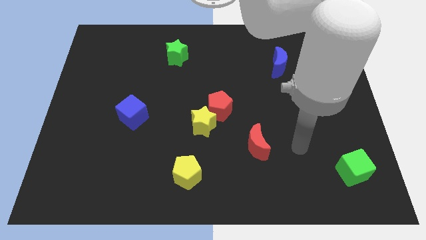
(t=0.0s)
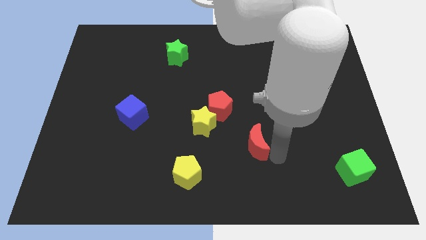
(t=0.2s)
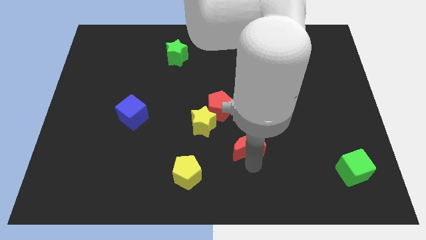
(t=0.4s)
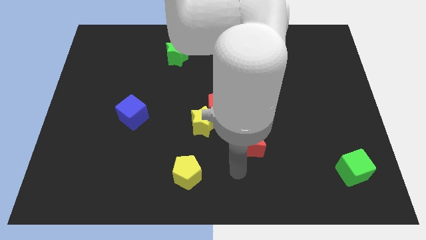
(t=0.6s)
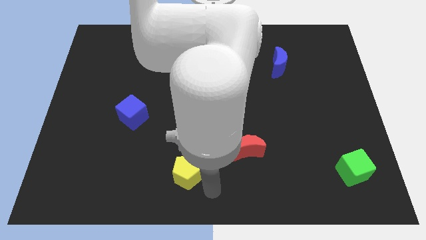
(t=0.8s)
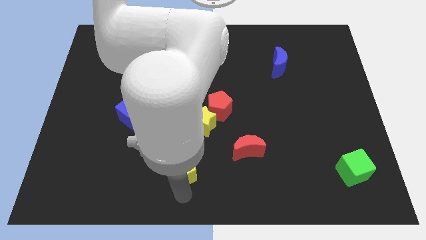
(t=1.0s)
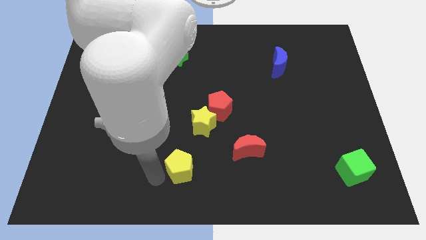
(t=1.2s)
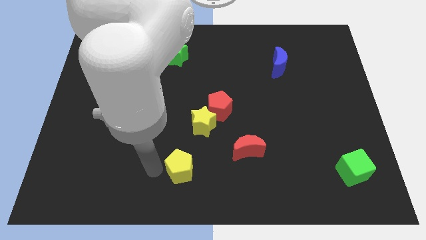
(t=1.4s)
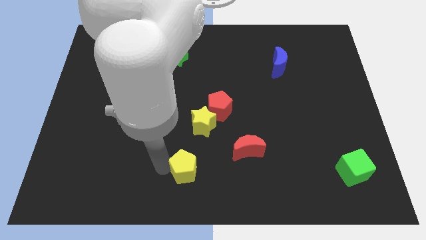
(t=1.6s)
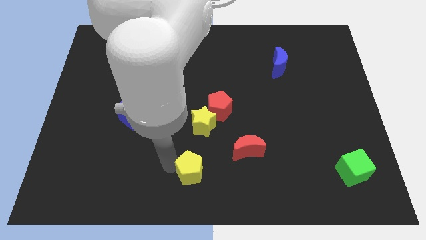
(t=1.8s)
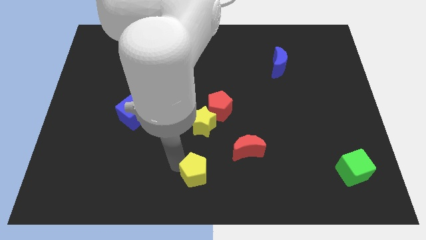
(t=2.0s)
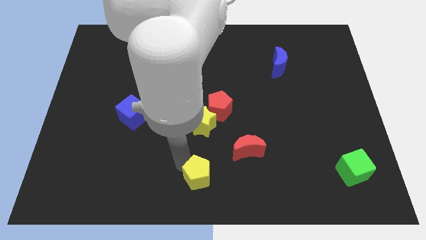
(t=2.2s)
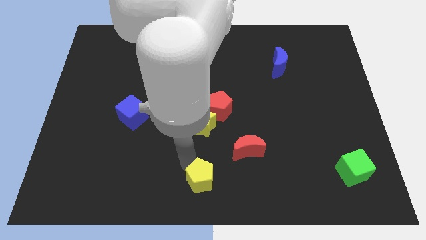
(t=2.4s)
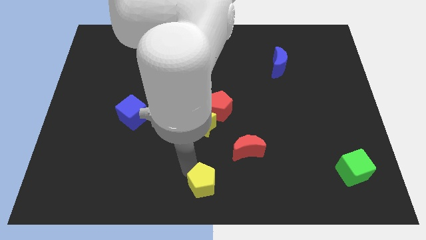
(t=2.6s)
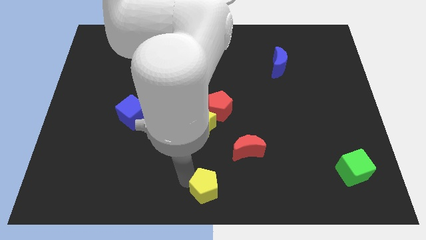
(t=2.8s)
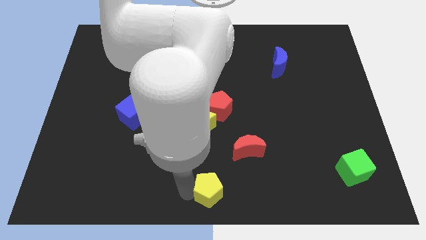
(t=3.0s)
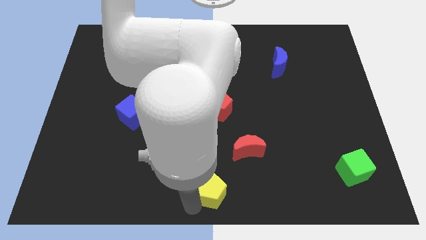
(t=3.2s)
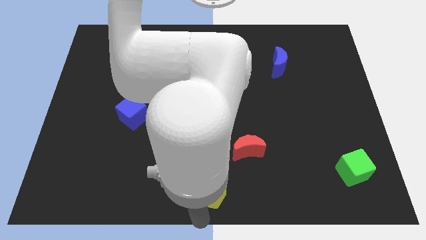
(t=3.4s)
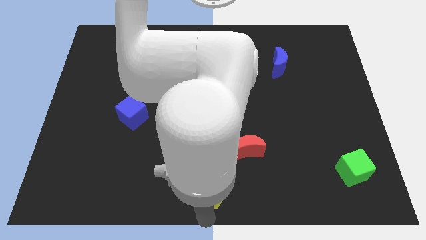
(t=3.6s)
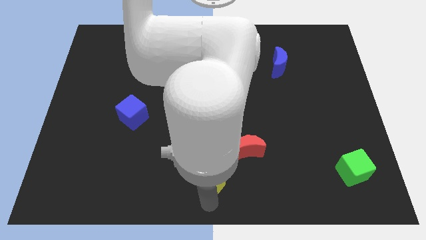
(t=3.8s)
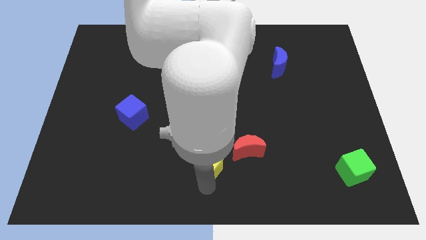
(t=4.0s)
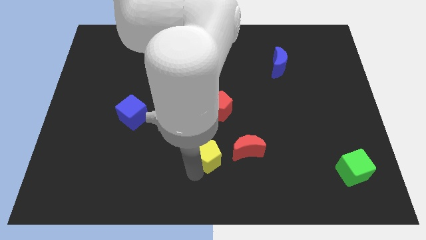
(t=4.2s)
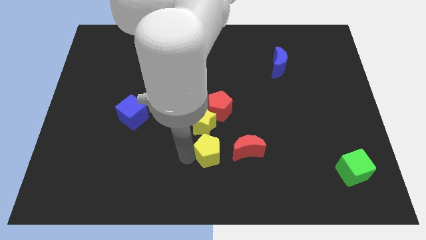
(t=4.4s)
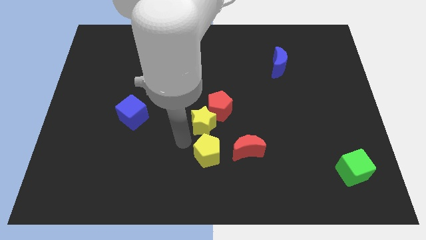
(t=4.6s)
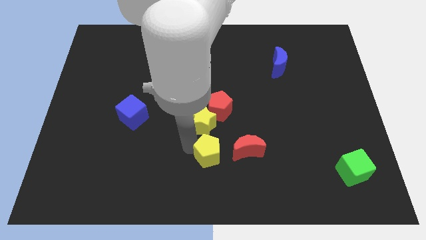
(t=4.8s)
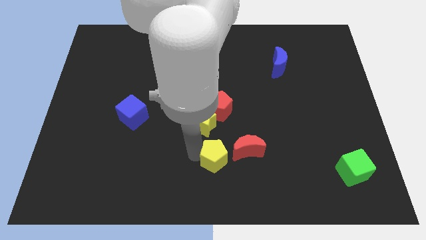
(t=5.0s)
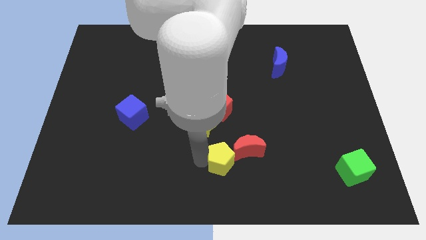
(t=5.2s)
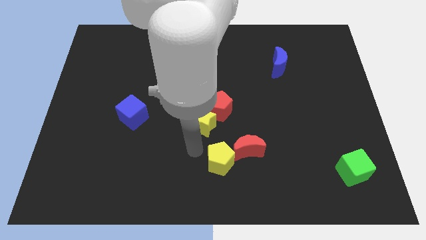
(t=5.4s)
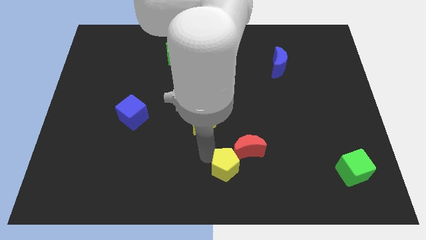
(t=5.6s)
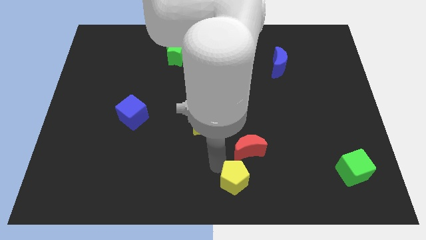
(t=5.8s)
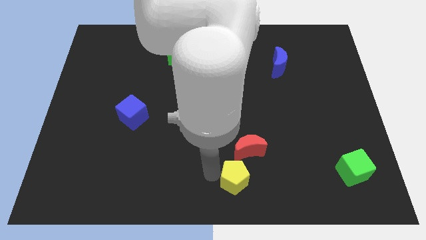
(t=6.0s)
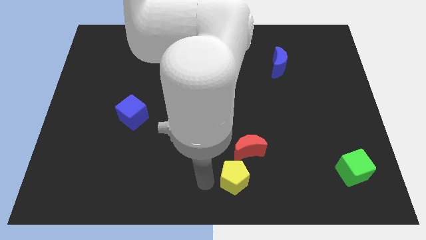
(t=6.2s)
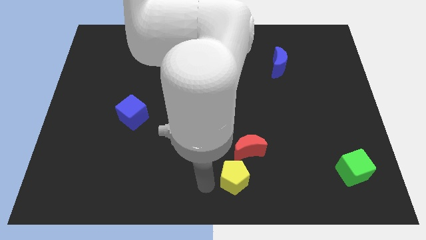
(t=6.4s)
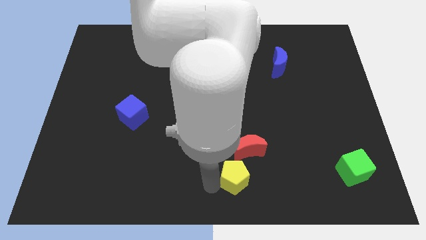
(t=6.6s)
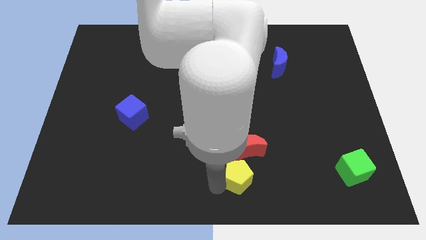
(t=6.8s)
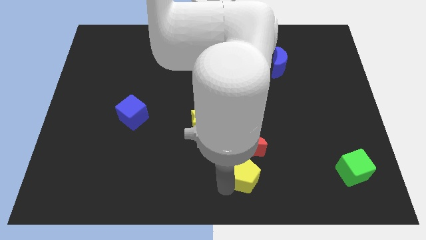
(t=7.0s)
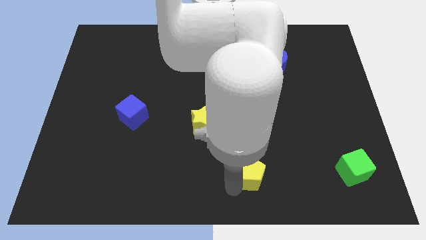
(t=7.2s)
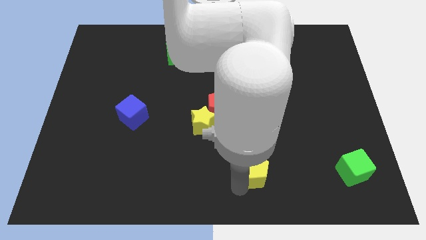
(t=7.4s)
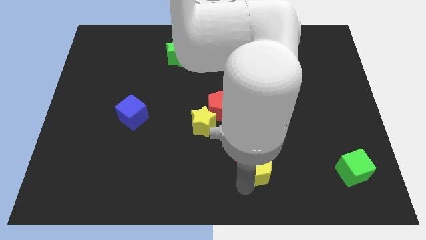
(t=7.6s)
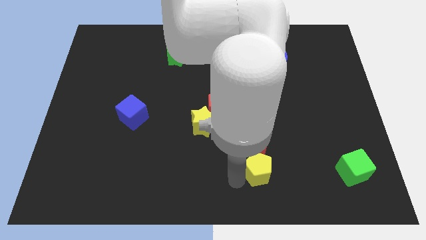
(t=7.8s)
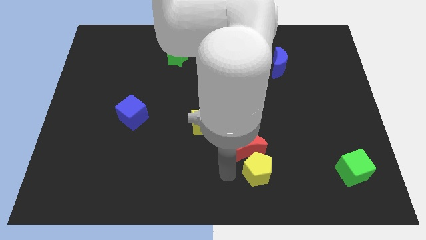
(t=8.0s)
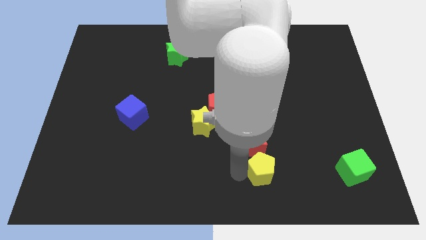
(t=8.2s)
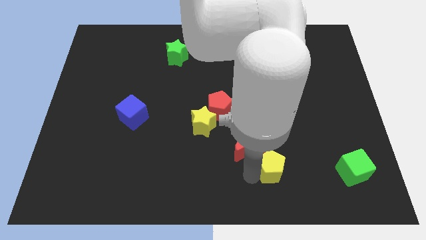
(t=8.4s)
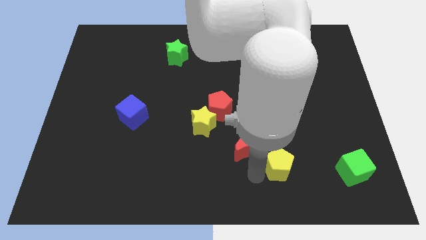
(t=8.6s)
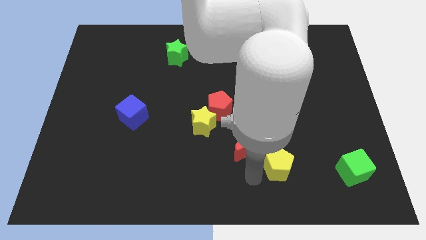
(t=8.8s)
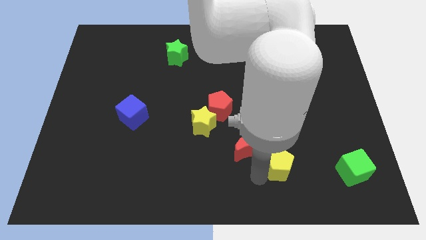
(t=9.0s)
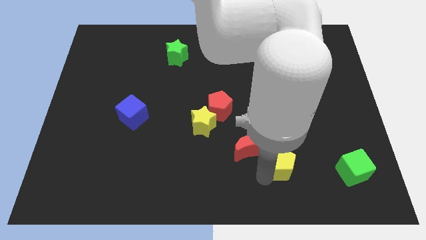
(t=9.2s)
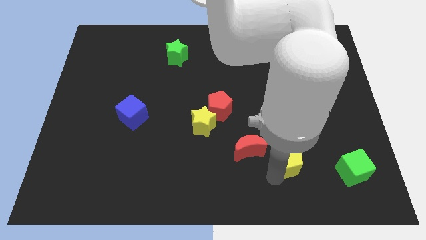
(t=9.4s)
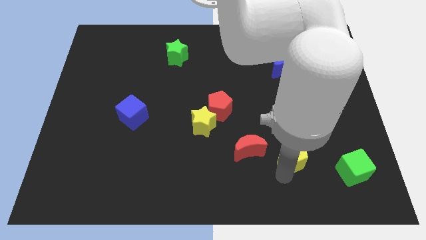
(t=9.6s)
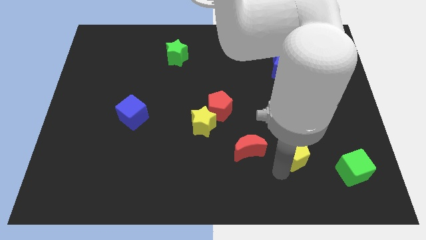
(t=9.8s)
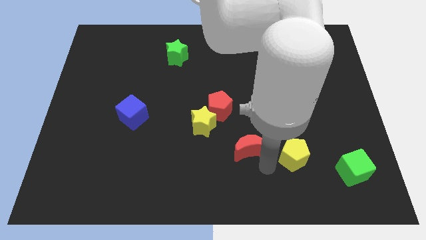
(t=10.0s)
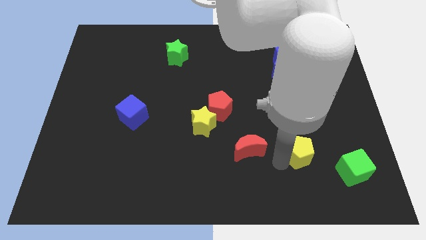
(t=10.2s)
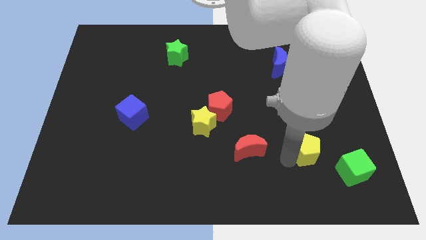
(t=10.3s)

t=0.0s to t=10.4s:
put the yellow pentagon to the top left side of the green cube
